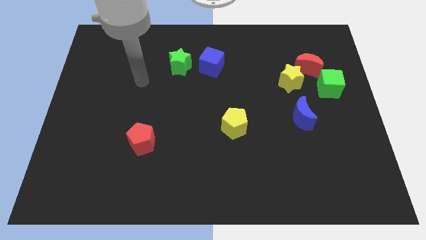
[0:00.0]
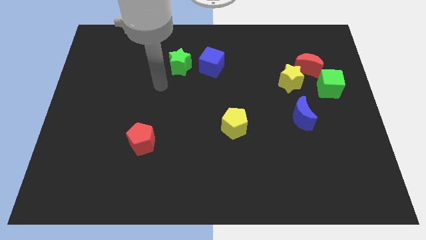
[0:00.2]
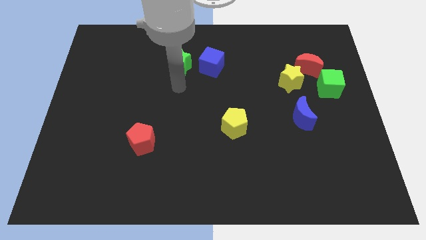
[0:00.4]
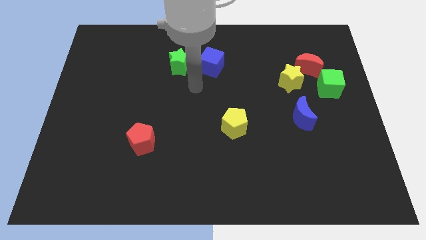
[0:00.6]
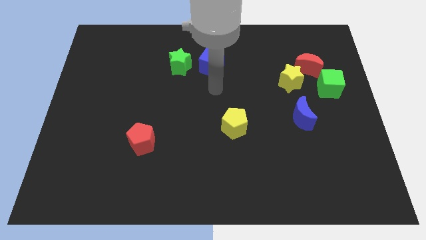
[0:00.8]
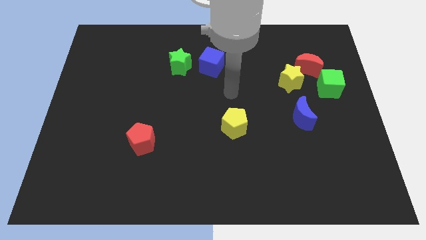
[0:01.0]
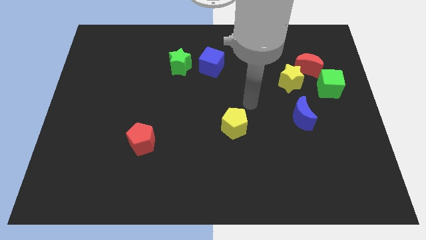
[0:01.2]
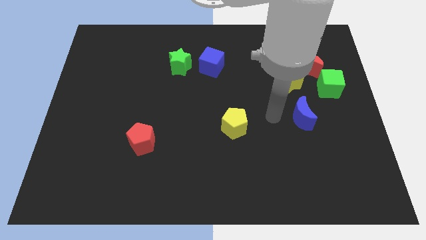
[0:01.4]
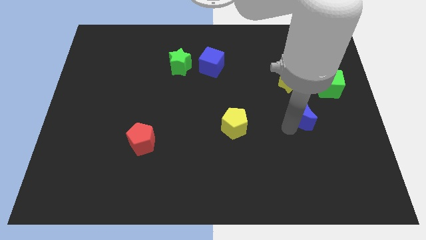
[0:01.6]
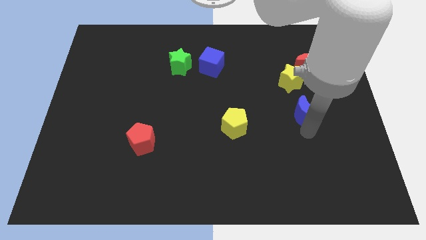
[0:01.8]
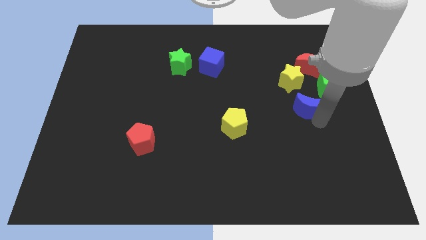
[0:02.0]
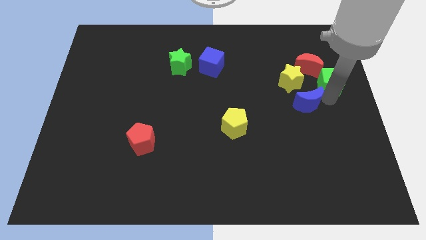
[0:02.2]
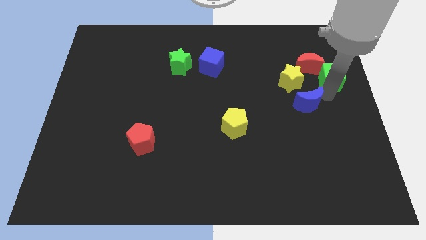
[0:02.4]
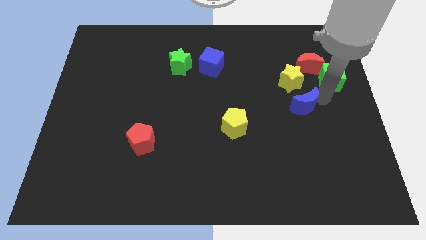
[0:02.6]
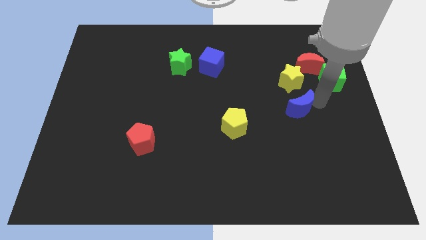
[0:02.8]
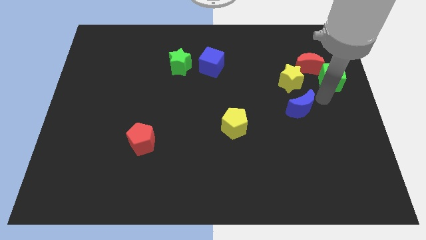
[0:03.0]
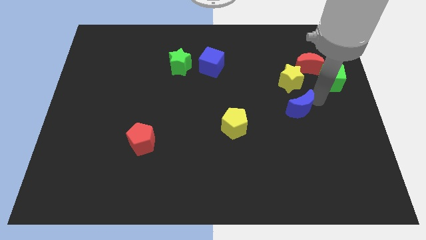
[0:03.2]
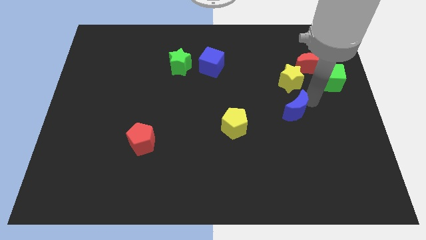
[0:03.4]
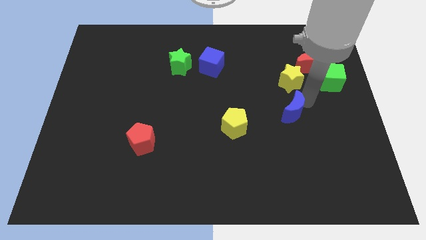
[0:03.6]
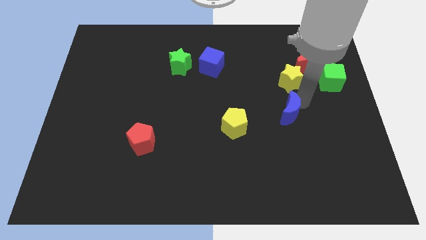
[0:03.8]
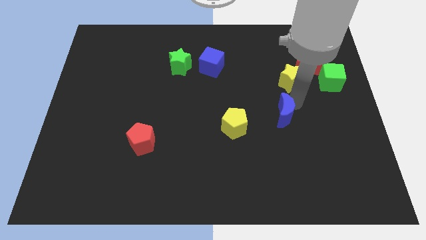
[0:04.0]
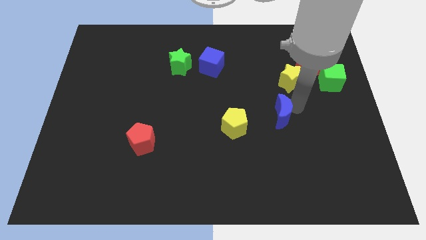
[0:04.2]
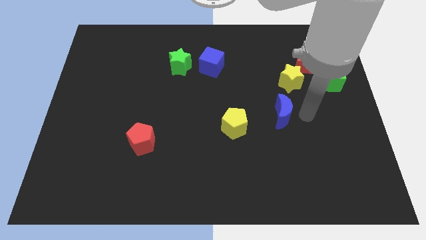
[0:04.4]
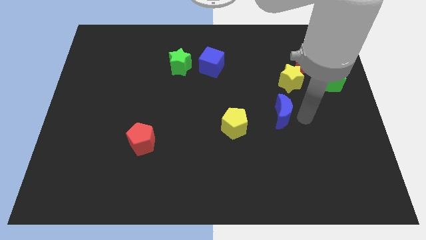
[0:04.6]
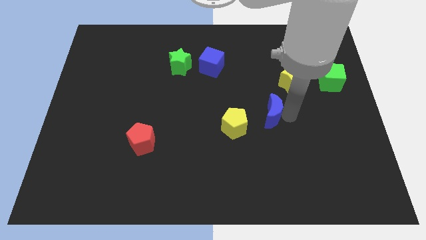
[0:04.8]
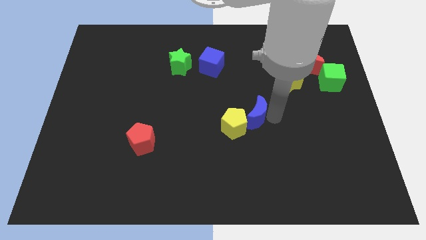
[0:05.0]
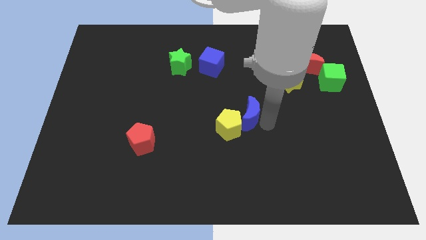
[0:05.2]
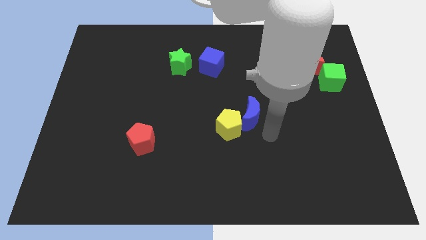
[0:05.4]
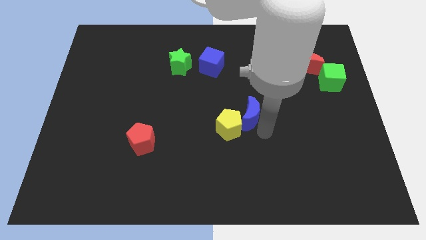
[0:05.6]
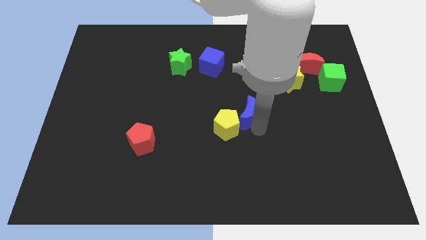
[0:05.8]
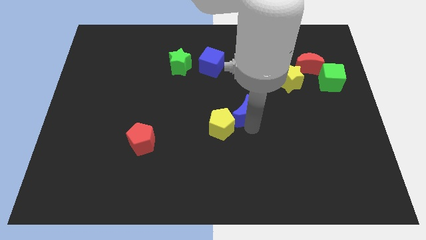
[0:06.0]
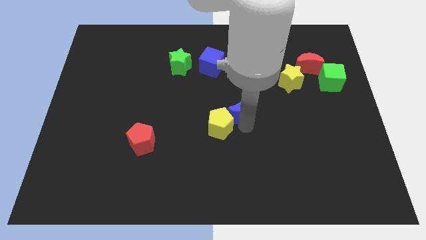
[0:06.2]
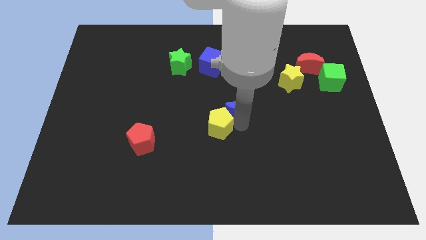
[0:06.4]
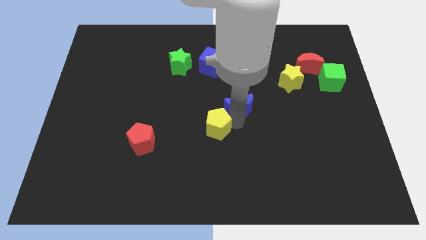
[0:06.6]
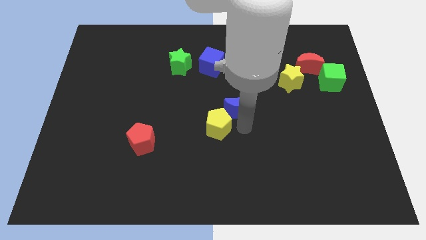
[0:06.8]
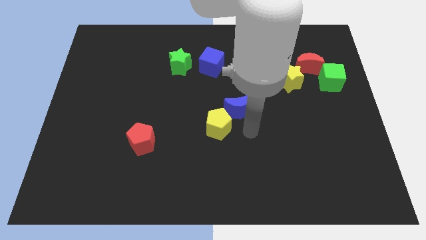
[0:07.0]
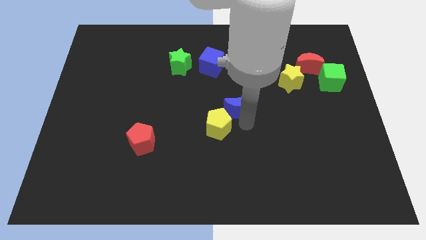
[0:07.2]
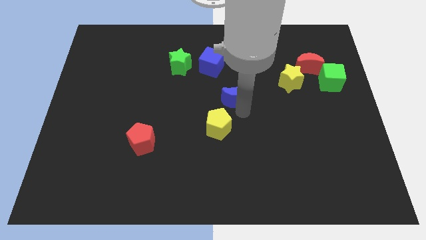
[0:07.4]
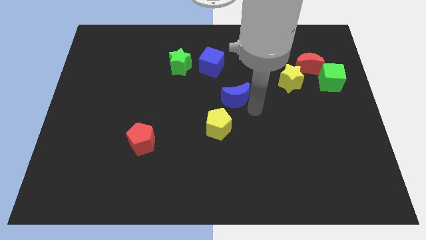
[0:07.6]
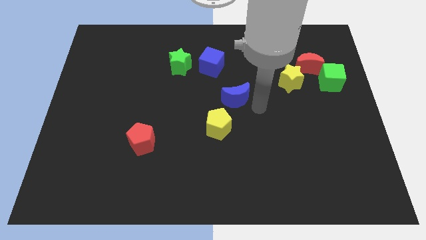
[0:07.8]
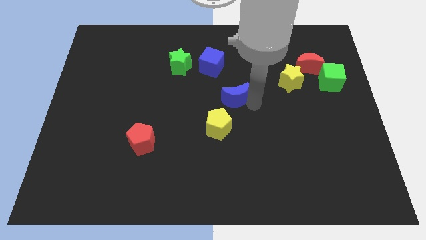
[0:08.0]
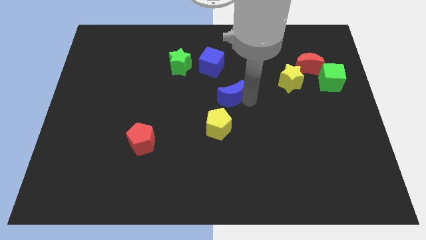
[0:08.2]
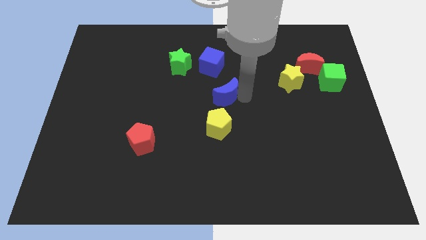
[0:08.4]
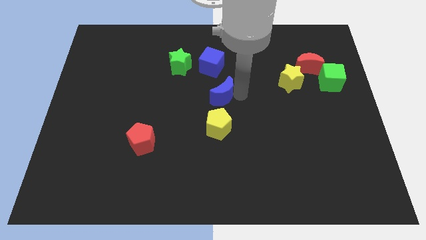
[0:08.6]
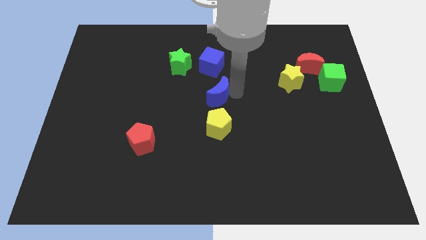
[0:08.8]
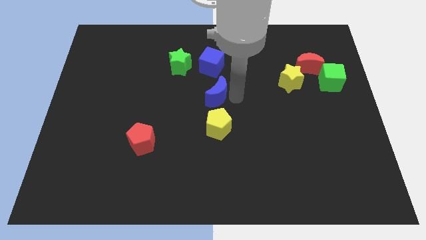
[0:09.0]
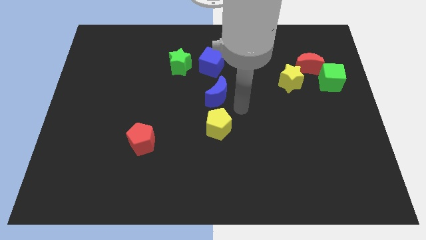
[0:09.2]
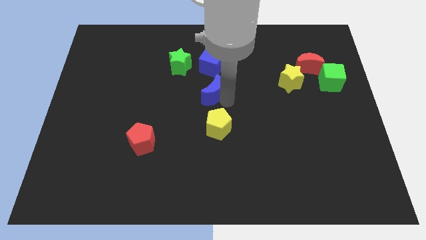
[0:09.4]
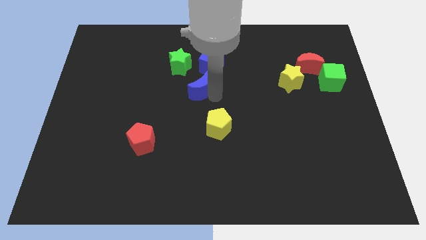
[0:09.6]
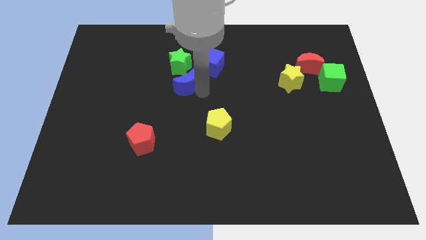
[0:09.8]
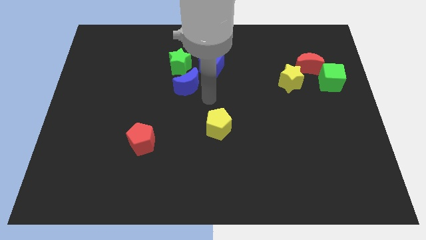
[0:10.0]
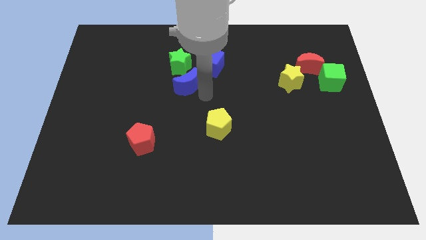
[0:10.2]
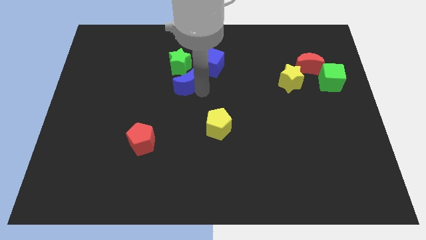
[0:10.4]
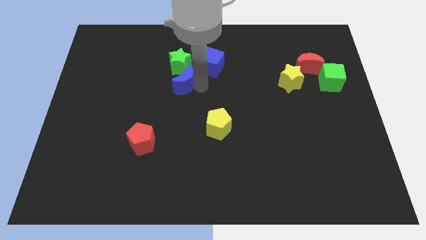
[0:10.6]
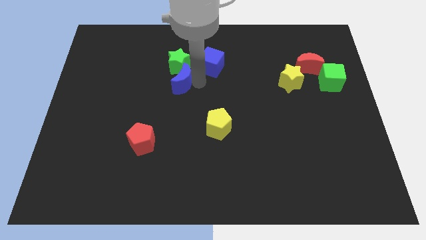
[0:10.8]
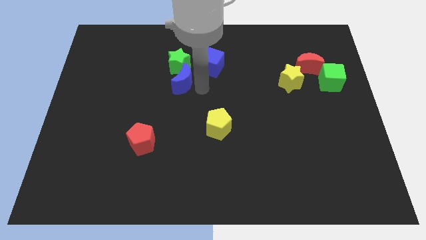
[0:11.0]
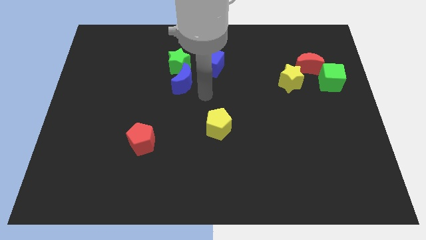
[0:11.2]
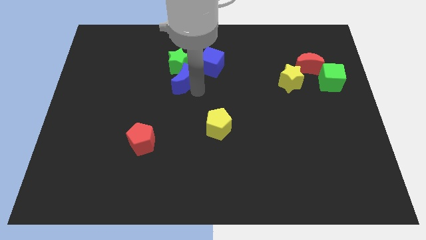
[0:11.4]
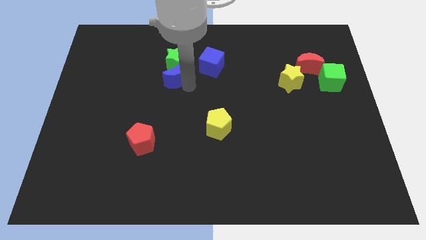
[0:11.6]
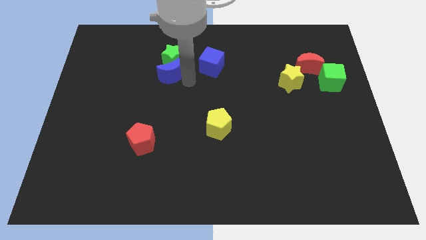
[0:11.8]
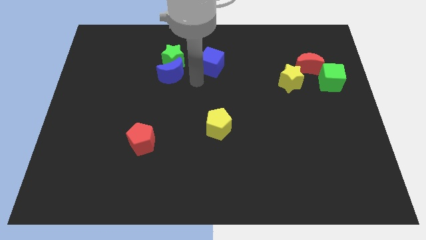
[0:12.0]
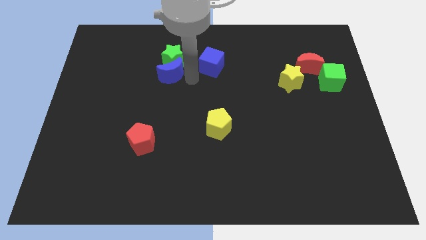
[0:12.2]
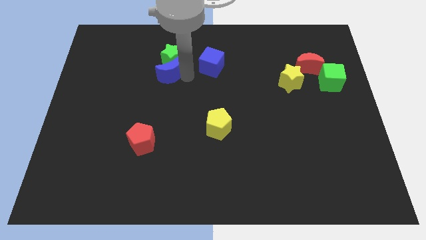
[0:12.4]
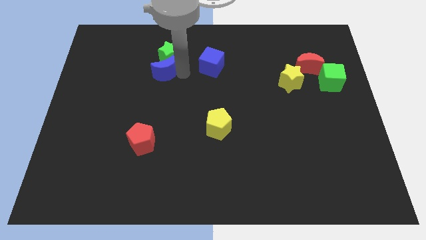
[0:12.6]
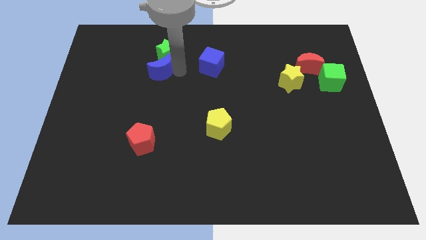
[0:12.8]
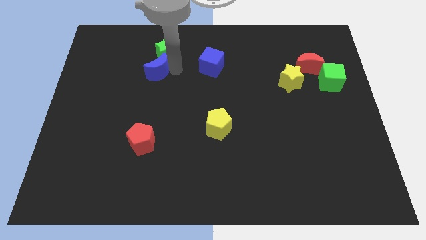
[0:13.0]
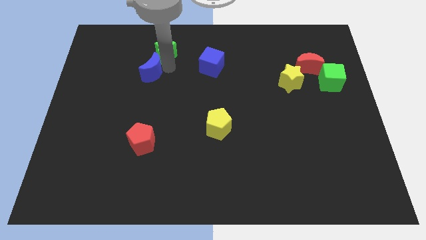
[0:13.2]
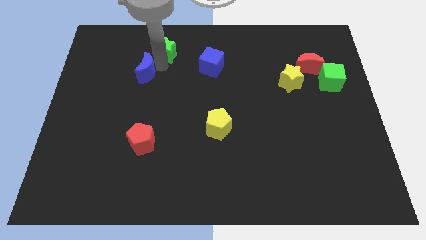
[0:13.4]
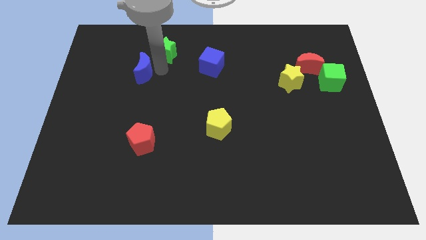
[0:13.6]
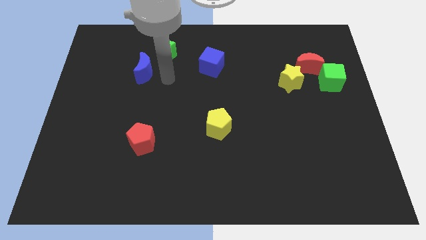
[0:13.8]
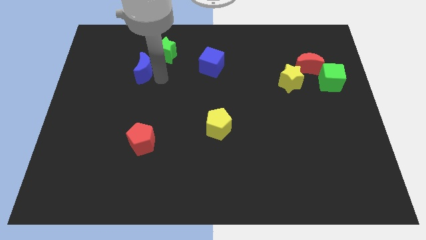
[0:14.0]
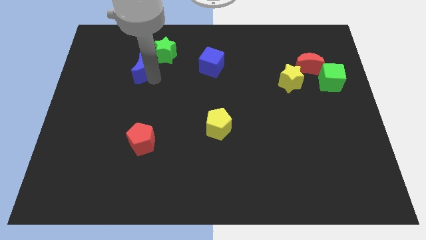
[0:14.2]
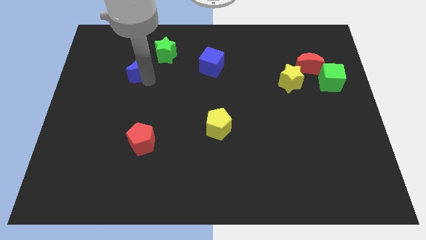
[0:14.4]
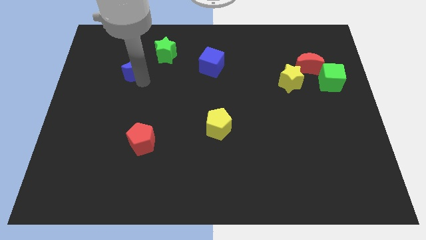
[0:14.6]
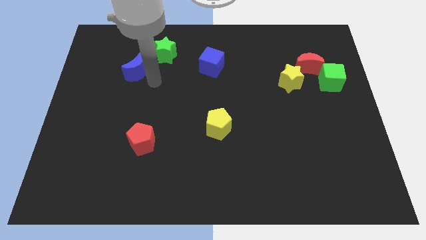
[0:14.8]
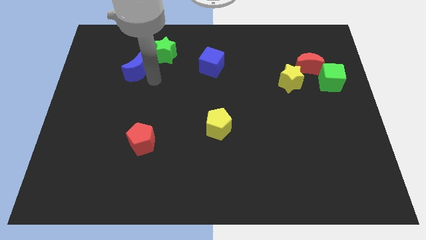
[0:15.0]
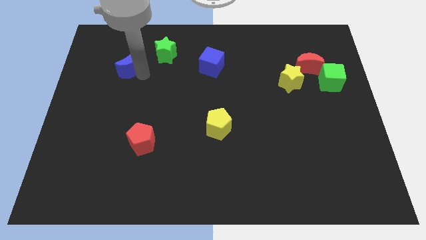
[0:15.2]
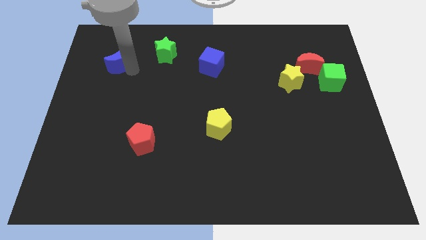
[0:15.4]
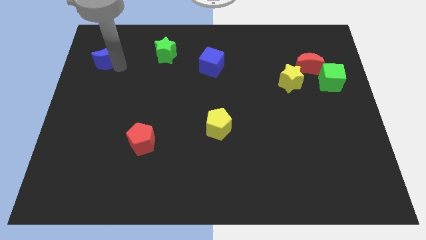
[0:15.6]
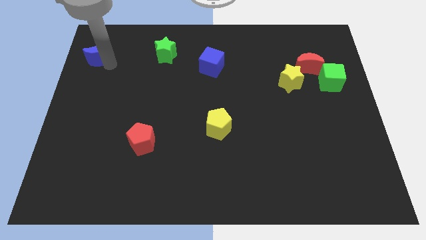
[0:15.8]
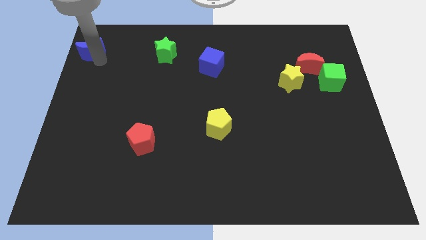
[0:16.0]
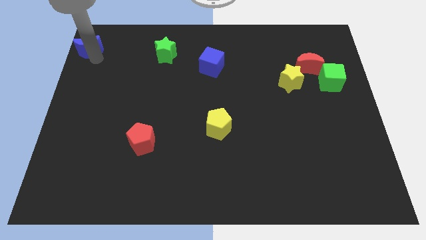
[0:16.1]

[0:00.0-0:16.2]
push the blue moon to the top left of the board
